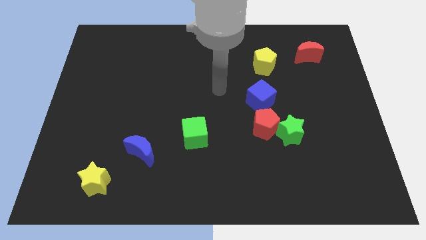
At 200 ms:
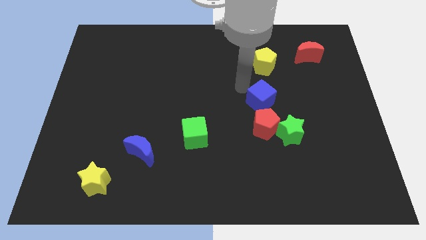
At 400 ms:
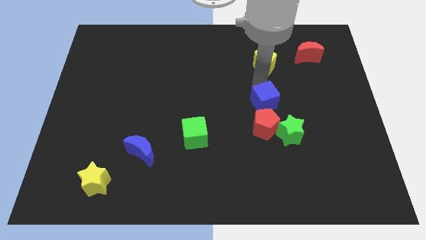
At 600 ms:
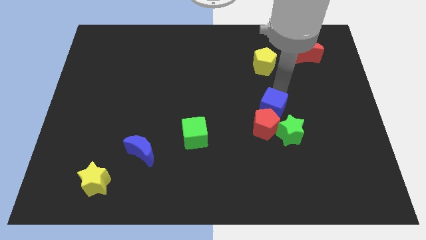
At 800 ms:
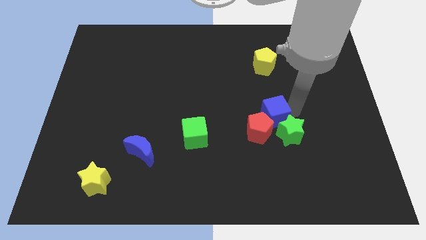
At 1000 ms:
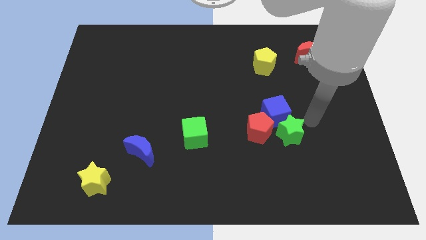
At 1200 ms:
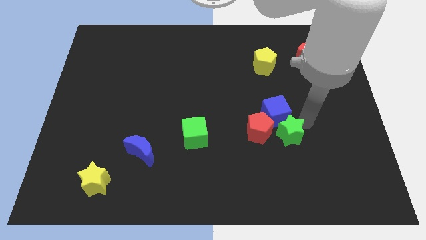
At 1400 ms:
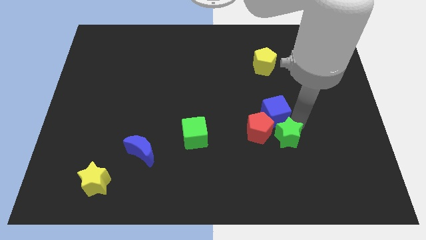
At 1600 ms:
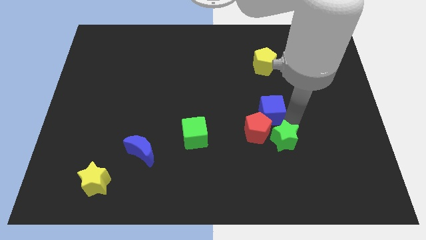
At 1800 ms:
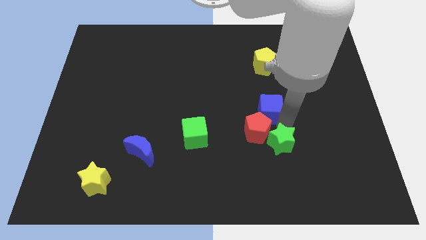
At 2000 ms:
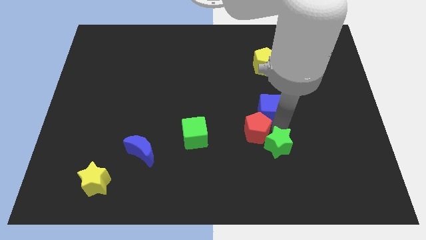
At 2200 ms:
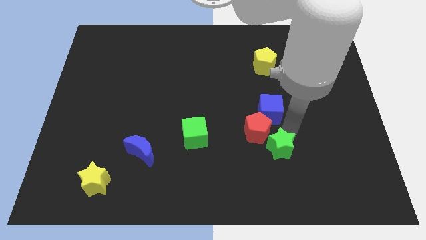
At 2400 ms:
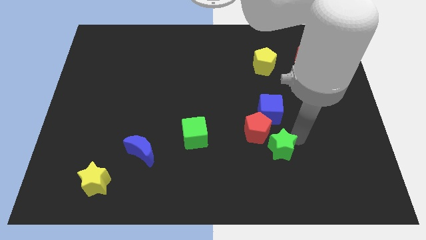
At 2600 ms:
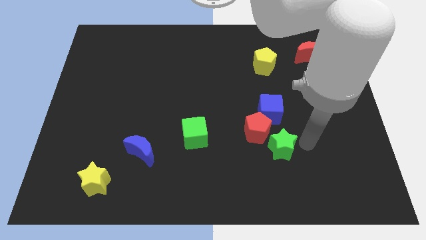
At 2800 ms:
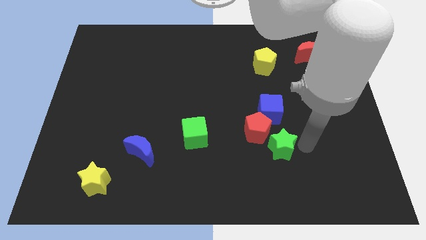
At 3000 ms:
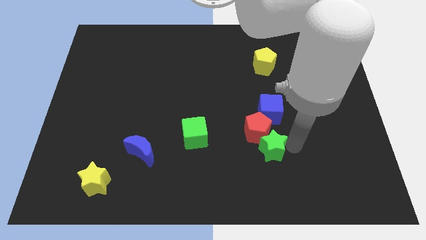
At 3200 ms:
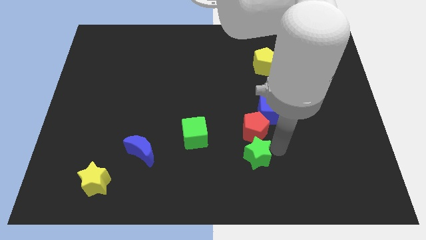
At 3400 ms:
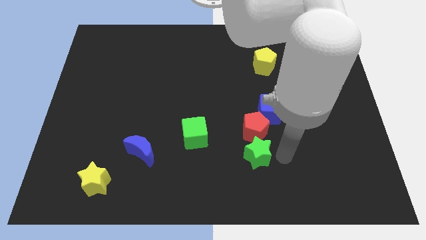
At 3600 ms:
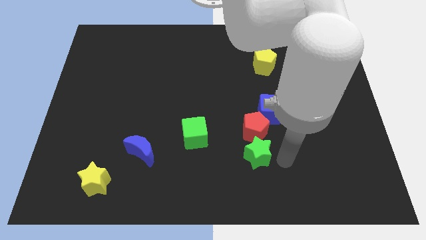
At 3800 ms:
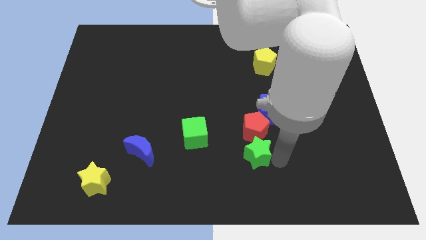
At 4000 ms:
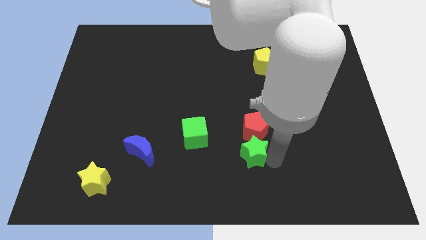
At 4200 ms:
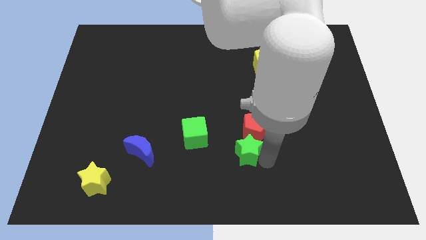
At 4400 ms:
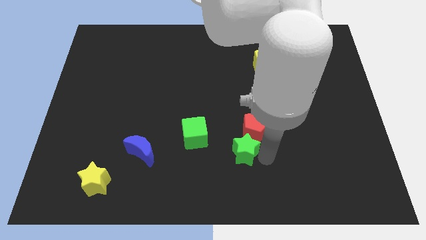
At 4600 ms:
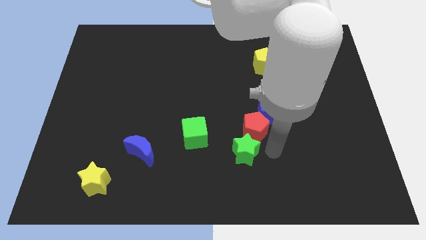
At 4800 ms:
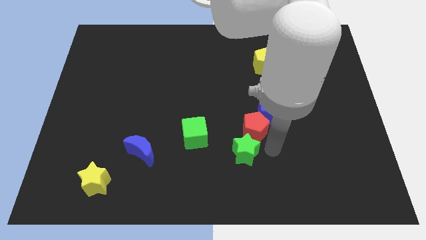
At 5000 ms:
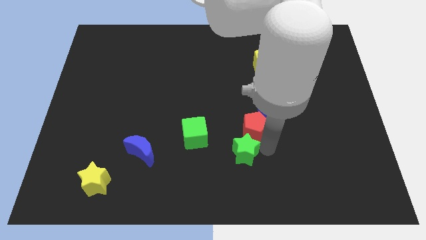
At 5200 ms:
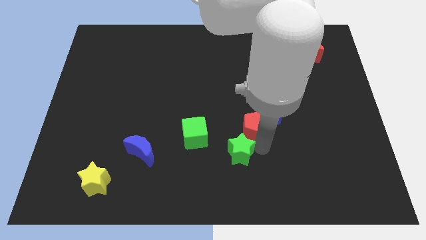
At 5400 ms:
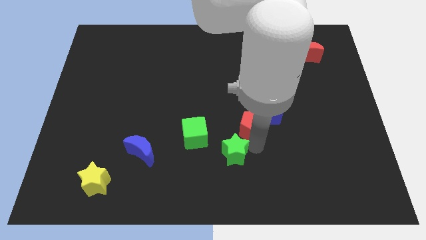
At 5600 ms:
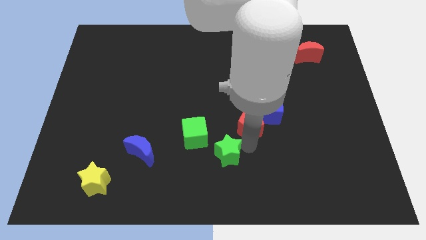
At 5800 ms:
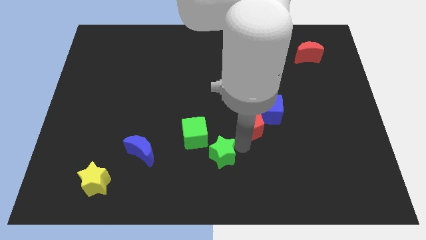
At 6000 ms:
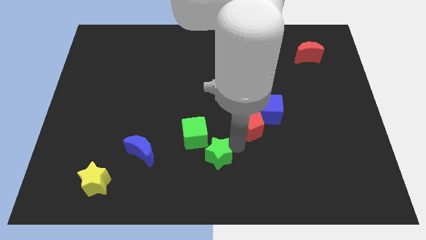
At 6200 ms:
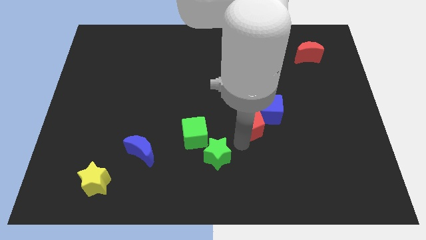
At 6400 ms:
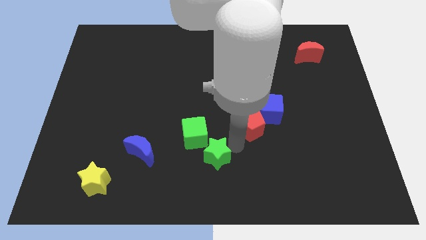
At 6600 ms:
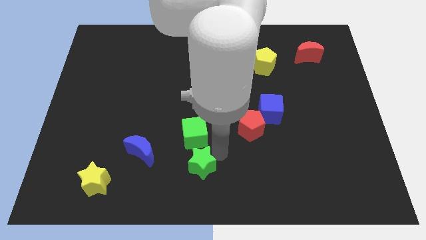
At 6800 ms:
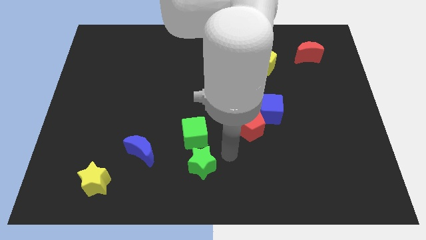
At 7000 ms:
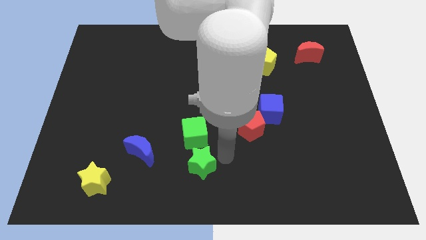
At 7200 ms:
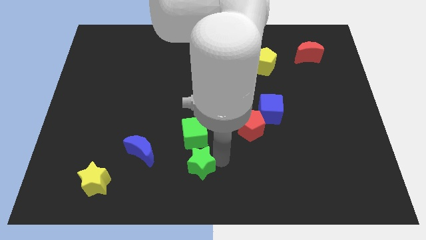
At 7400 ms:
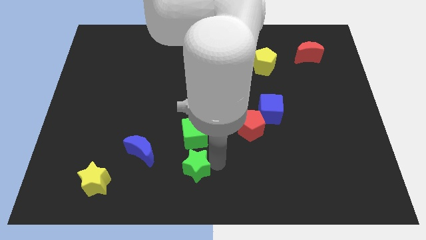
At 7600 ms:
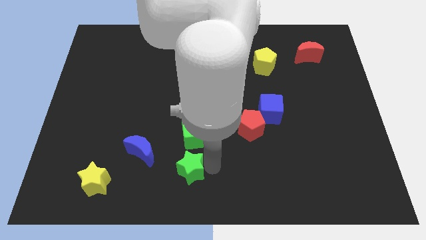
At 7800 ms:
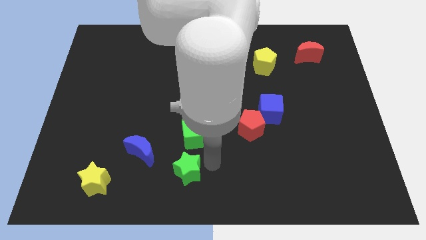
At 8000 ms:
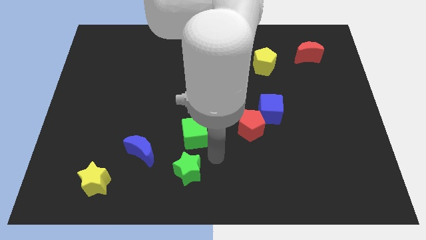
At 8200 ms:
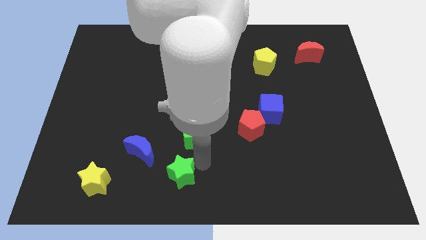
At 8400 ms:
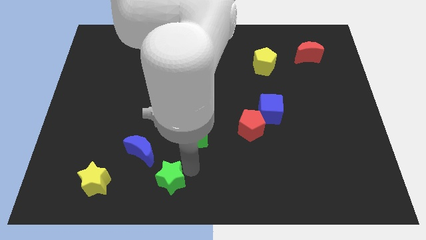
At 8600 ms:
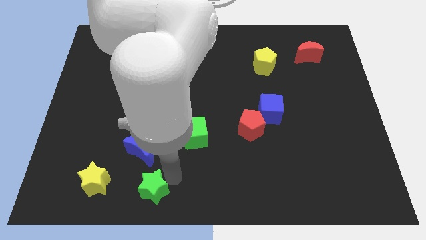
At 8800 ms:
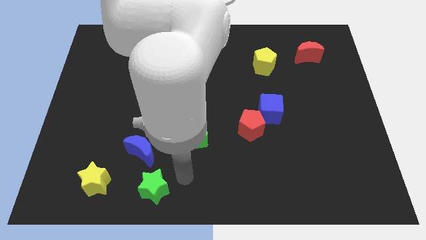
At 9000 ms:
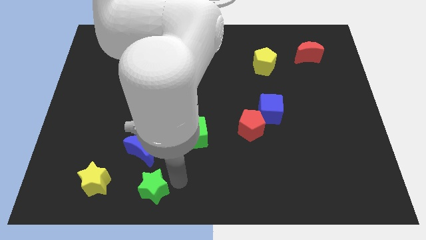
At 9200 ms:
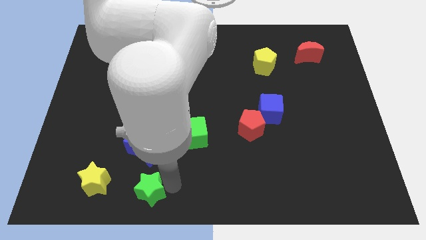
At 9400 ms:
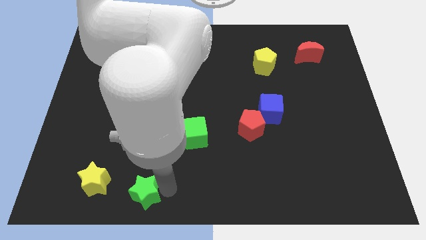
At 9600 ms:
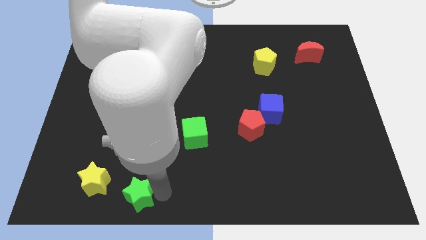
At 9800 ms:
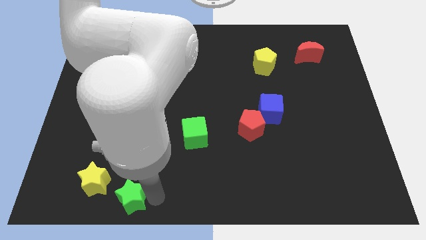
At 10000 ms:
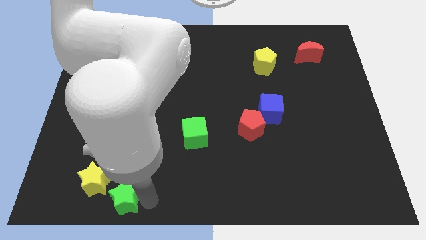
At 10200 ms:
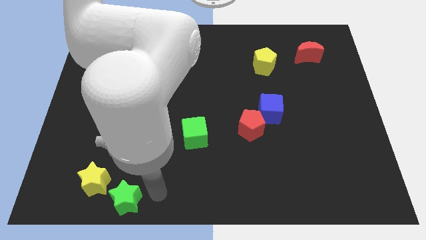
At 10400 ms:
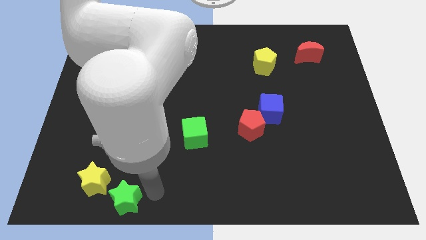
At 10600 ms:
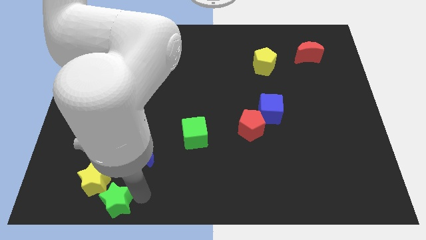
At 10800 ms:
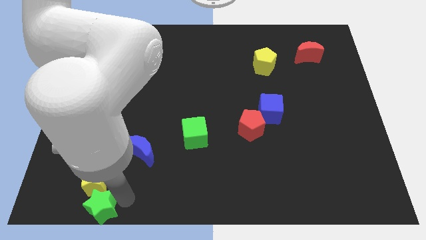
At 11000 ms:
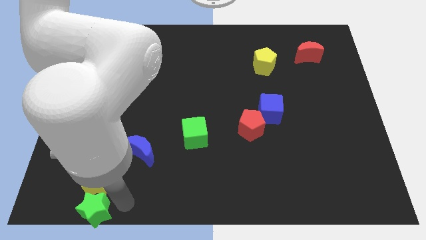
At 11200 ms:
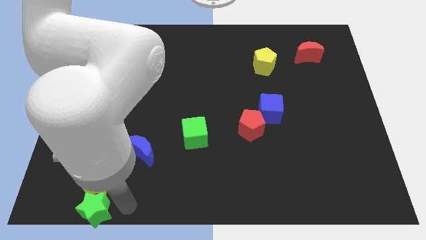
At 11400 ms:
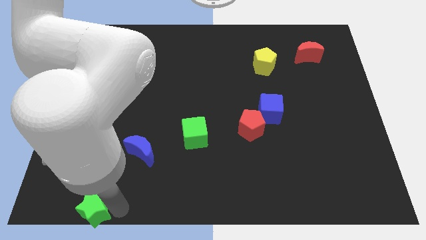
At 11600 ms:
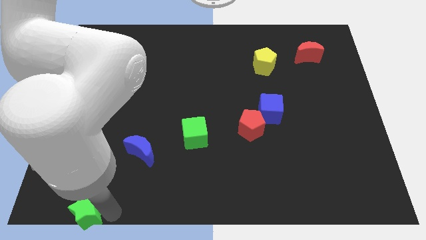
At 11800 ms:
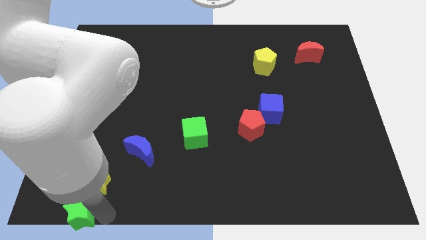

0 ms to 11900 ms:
move the green star to the bottom left corner
